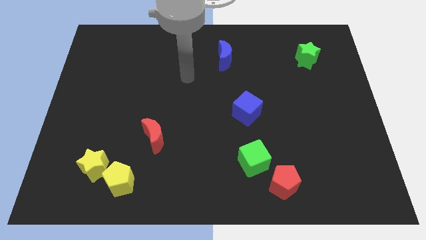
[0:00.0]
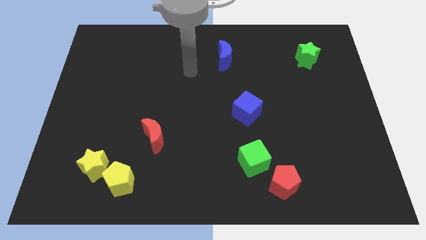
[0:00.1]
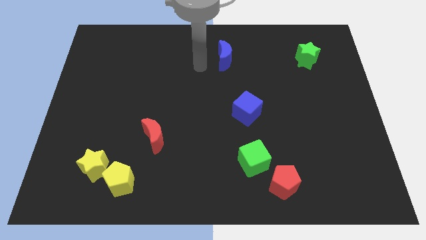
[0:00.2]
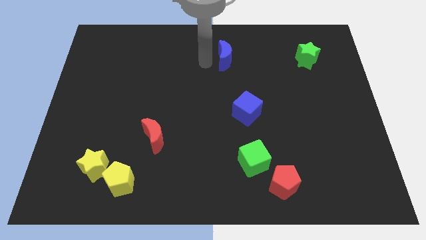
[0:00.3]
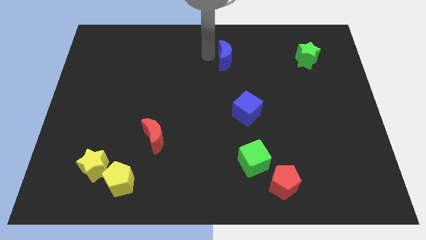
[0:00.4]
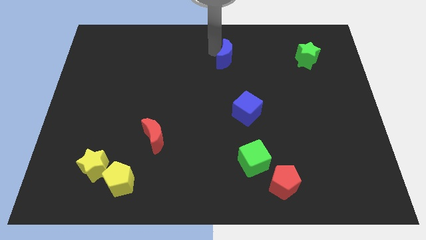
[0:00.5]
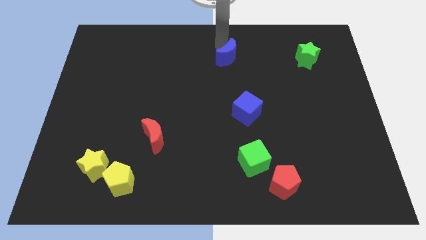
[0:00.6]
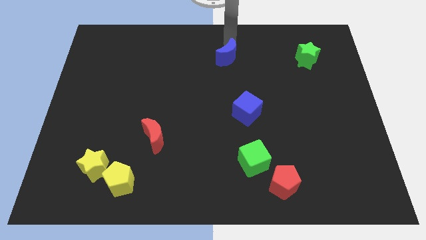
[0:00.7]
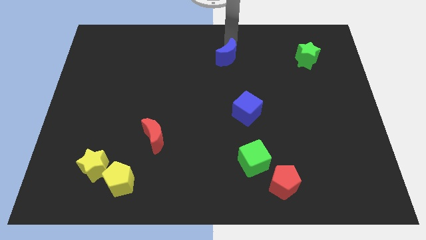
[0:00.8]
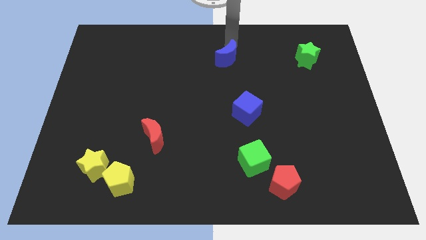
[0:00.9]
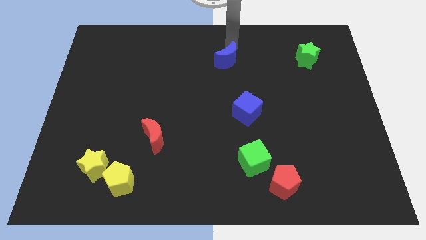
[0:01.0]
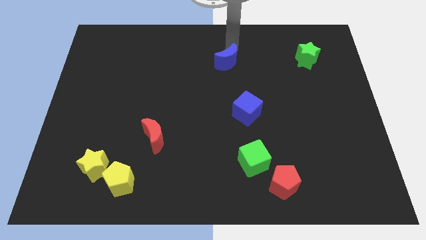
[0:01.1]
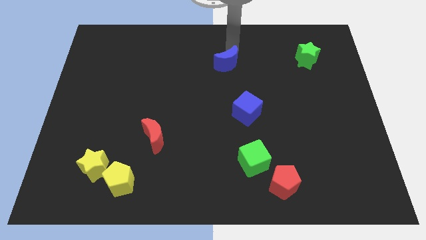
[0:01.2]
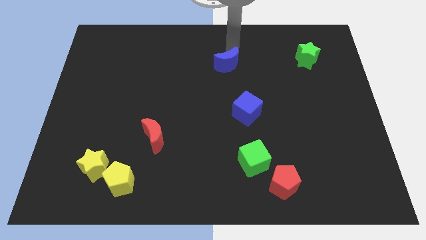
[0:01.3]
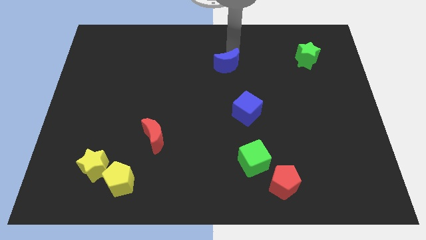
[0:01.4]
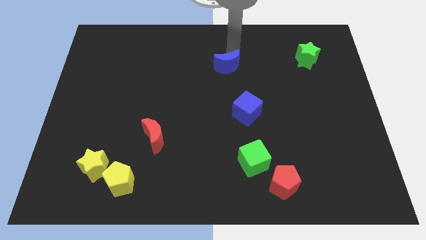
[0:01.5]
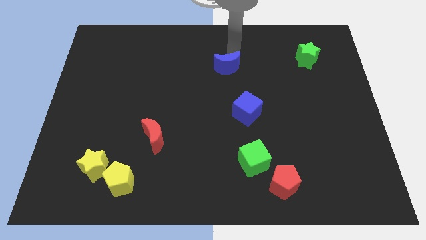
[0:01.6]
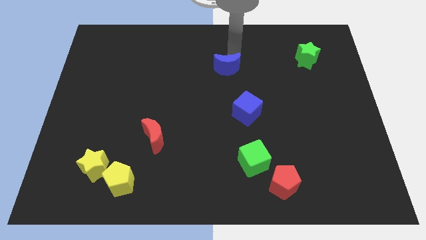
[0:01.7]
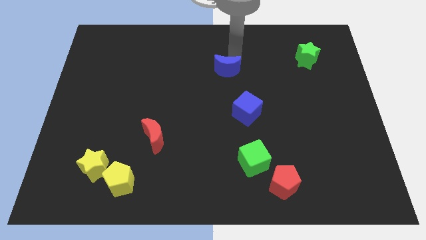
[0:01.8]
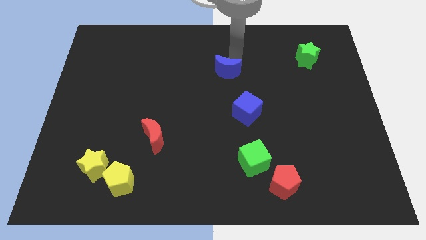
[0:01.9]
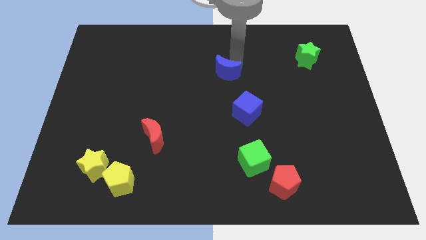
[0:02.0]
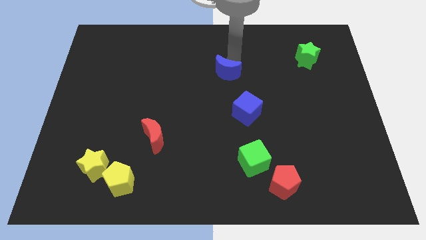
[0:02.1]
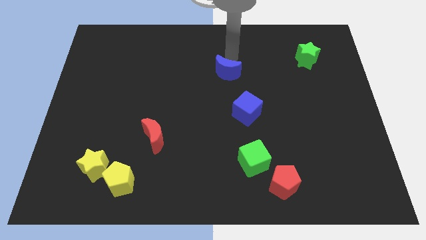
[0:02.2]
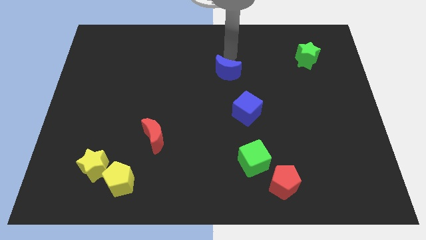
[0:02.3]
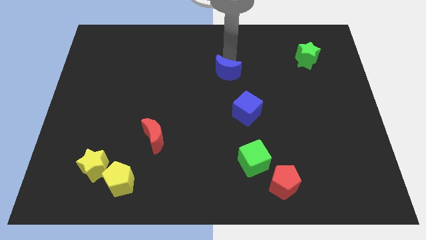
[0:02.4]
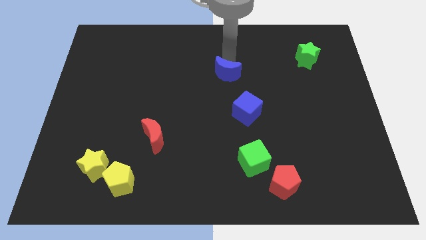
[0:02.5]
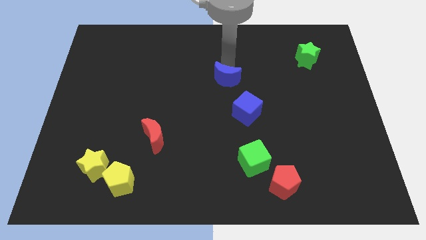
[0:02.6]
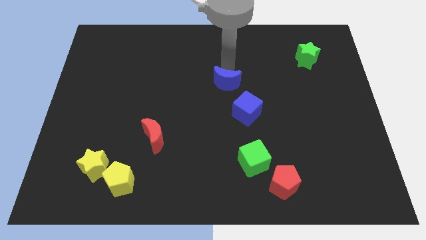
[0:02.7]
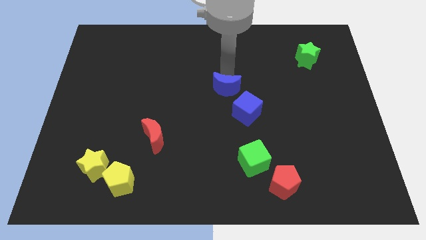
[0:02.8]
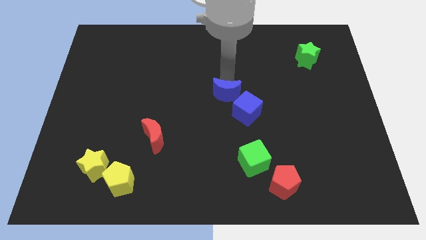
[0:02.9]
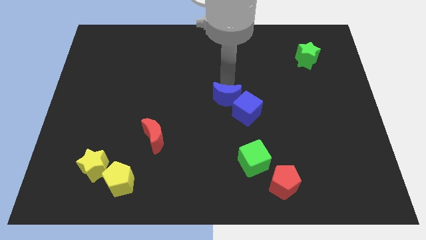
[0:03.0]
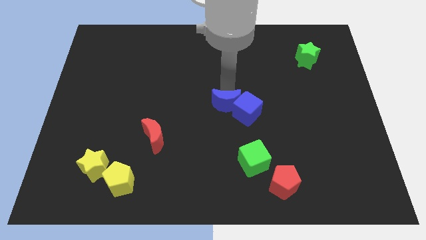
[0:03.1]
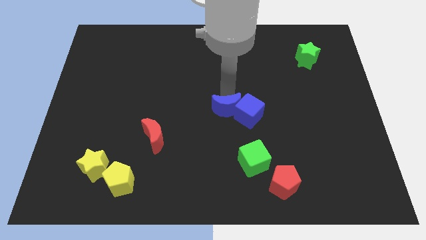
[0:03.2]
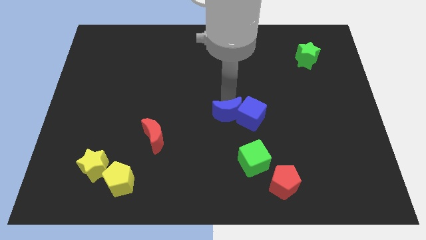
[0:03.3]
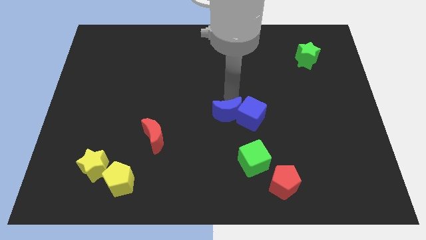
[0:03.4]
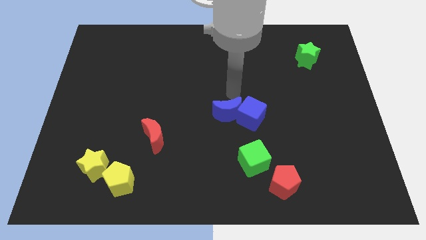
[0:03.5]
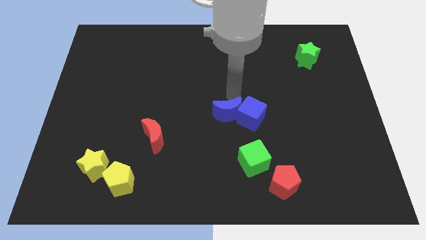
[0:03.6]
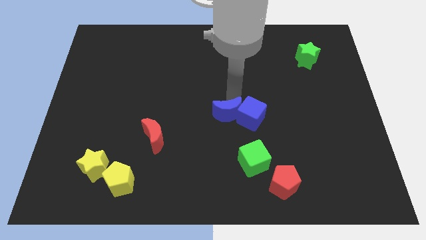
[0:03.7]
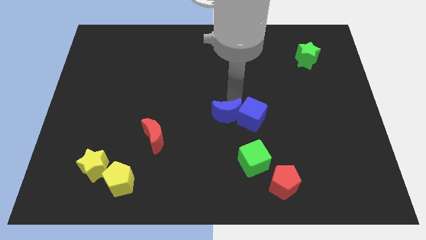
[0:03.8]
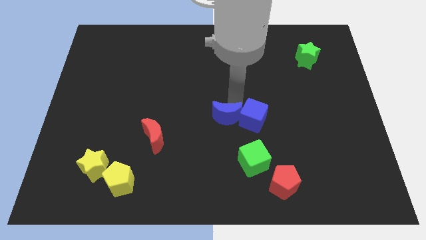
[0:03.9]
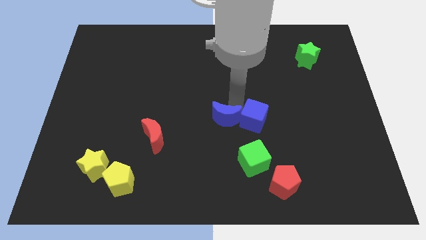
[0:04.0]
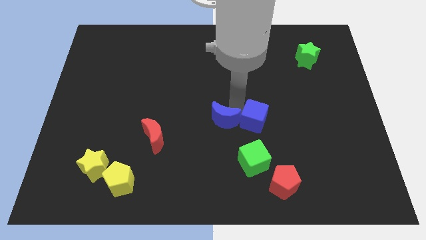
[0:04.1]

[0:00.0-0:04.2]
slide the blue moon down

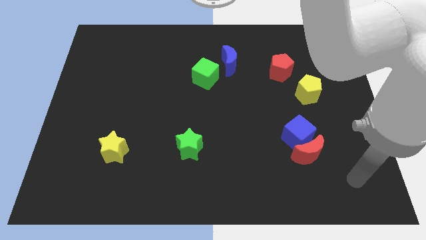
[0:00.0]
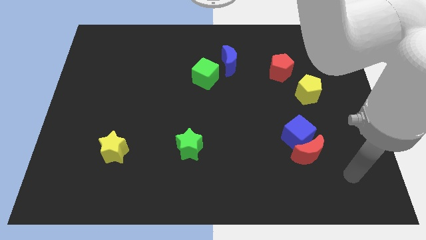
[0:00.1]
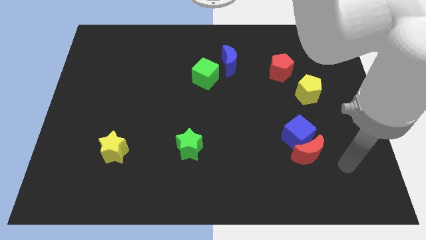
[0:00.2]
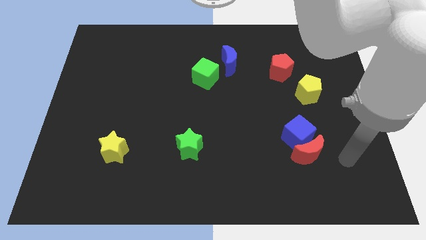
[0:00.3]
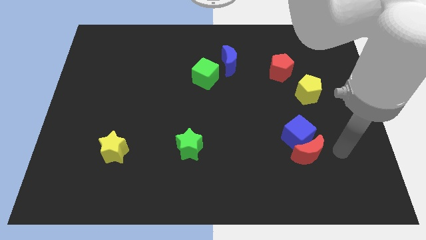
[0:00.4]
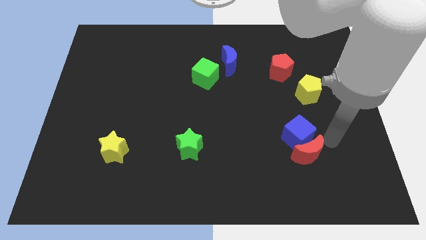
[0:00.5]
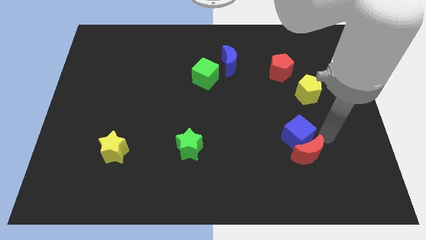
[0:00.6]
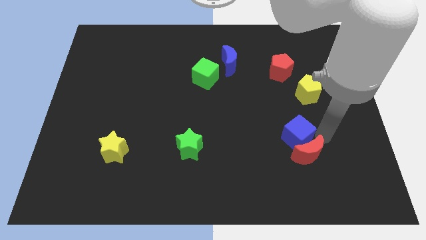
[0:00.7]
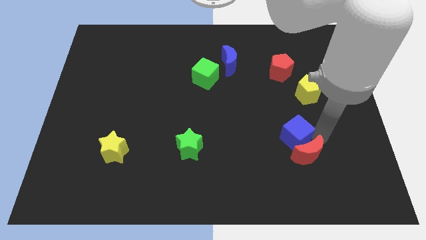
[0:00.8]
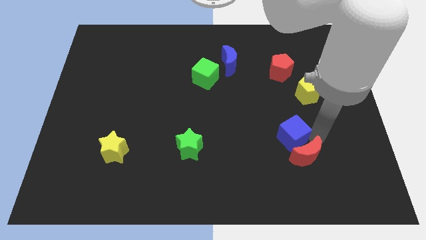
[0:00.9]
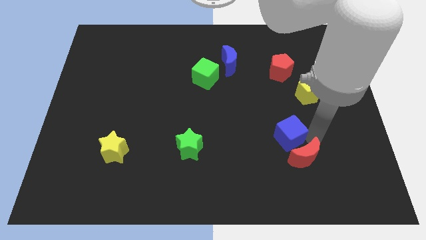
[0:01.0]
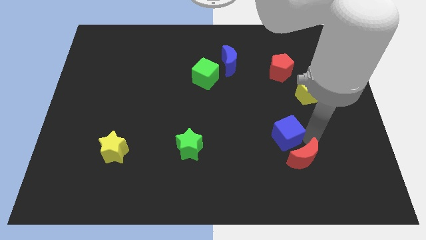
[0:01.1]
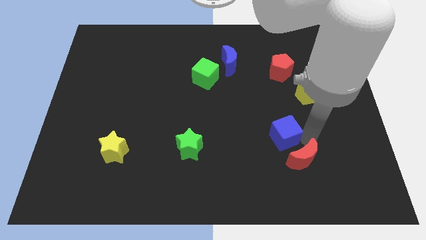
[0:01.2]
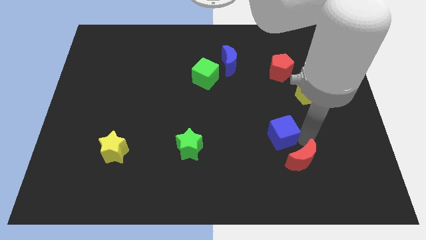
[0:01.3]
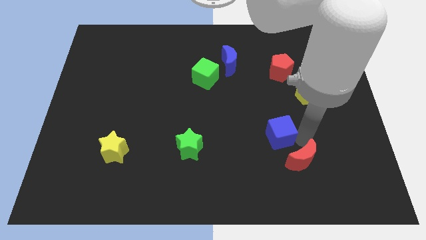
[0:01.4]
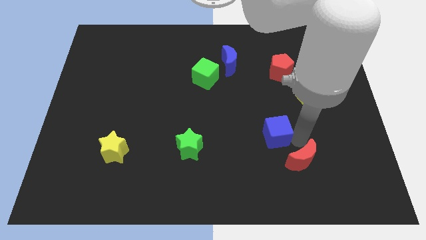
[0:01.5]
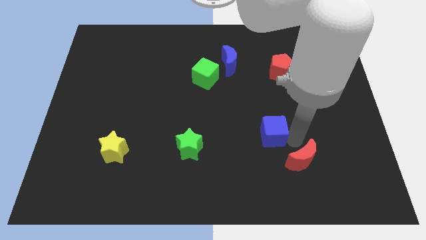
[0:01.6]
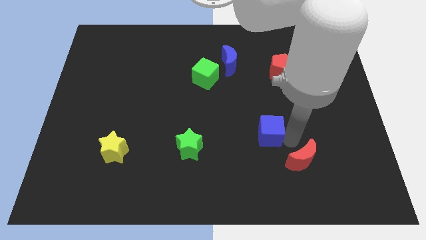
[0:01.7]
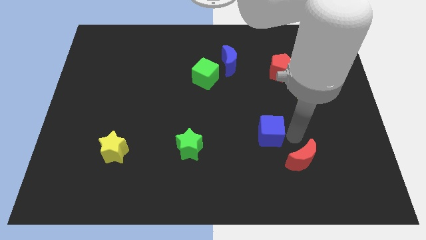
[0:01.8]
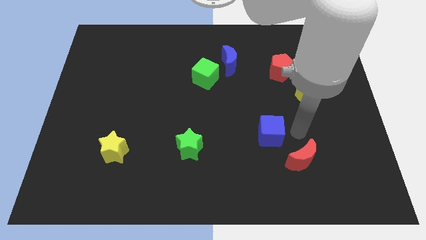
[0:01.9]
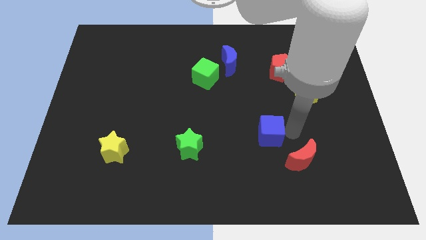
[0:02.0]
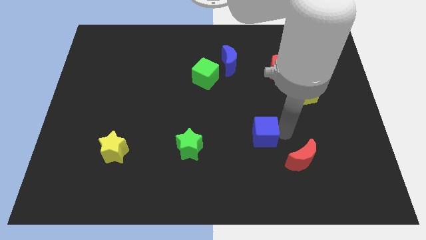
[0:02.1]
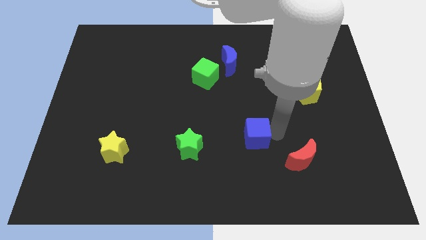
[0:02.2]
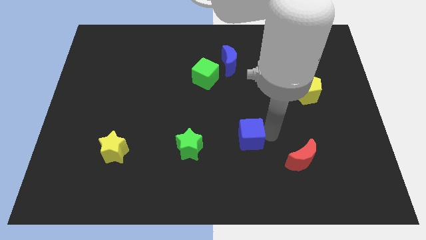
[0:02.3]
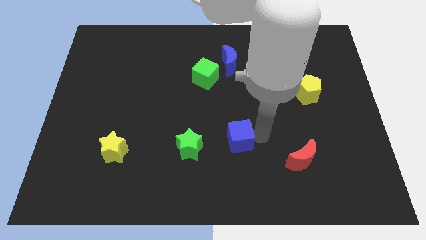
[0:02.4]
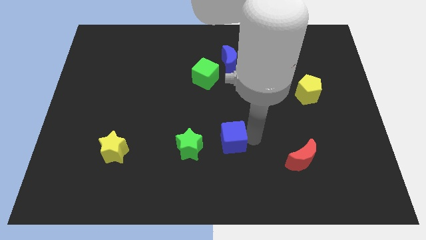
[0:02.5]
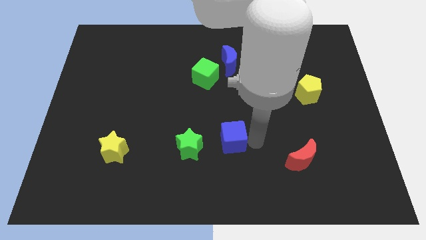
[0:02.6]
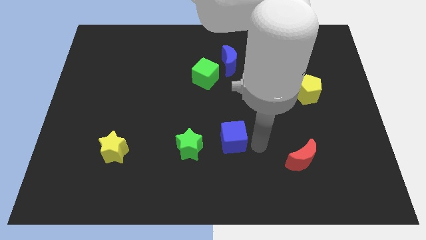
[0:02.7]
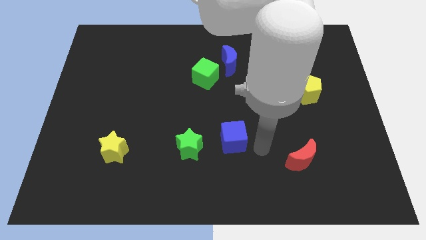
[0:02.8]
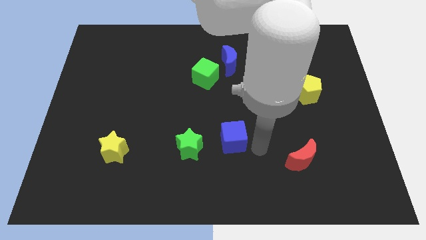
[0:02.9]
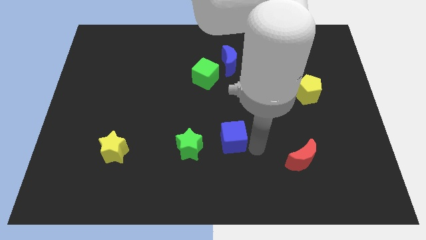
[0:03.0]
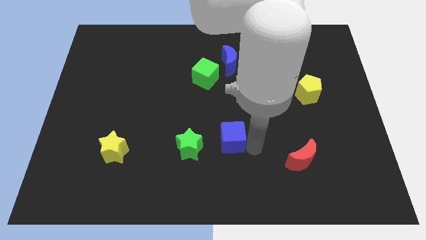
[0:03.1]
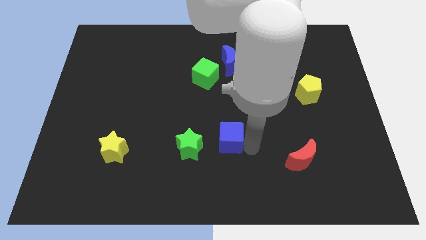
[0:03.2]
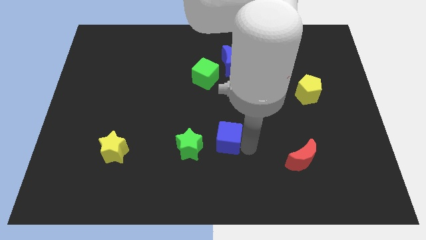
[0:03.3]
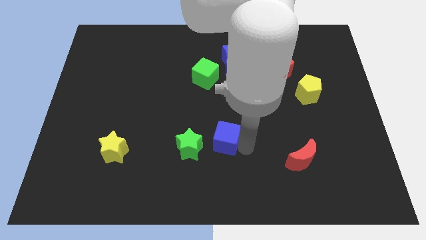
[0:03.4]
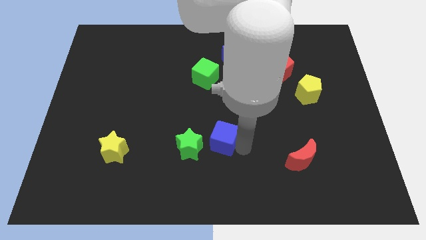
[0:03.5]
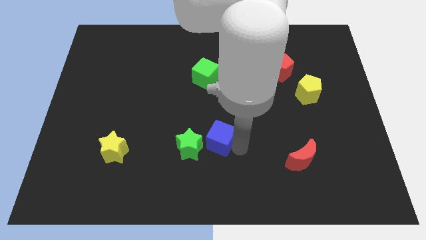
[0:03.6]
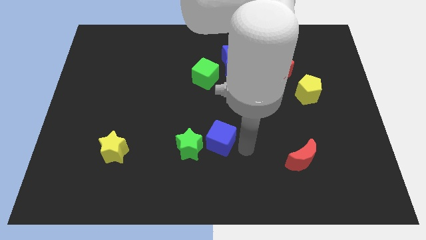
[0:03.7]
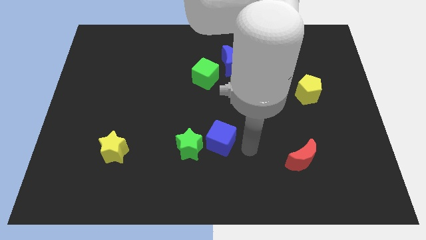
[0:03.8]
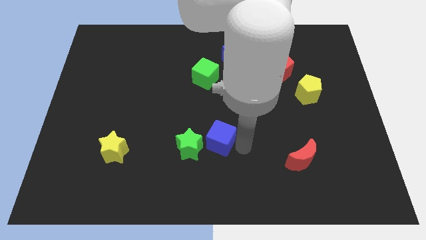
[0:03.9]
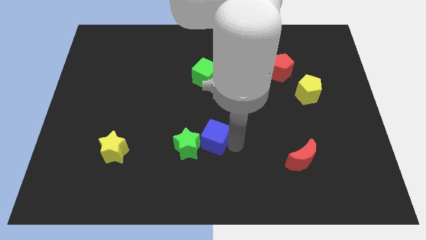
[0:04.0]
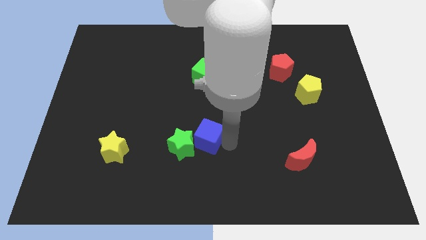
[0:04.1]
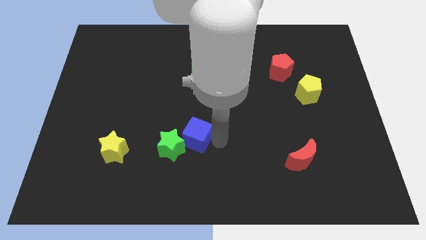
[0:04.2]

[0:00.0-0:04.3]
push the blue cube to the left
